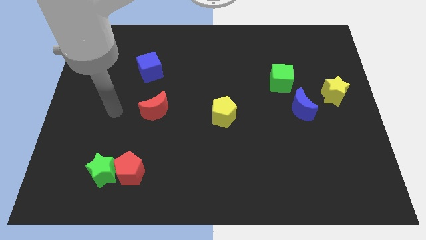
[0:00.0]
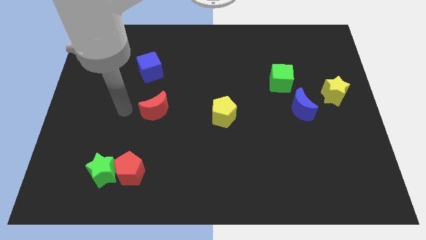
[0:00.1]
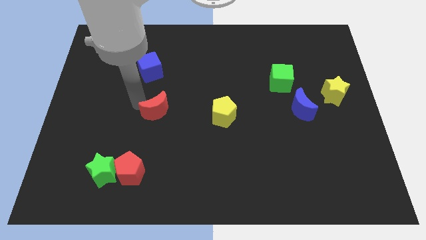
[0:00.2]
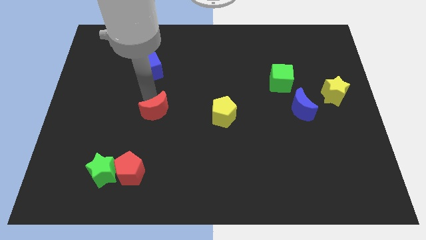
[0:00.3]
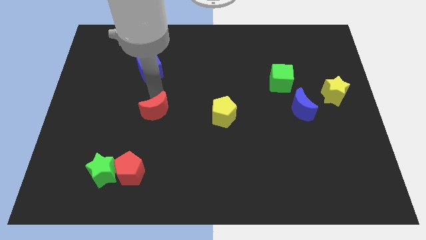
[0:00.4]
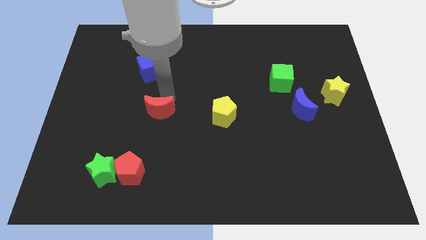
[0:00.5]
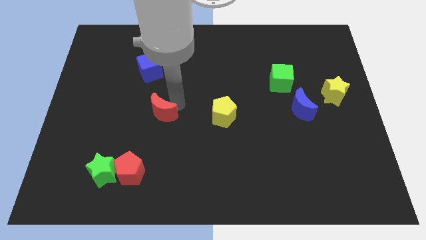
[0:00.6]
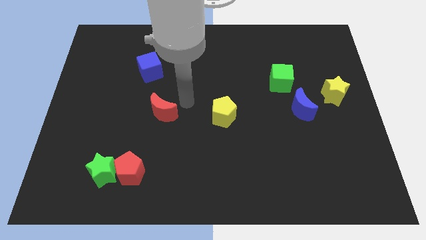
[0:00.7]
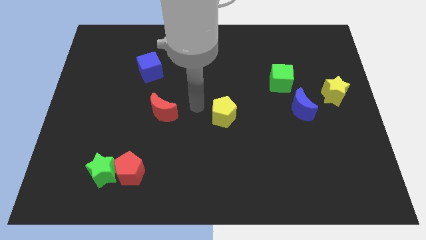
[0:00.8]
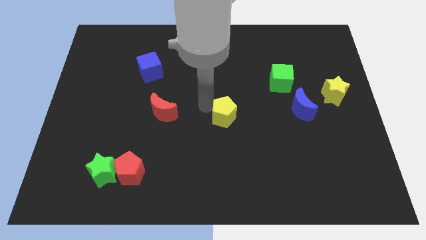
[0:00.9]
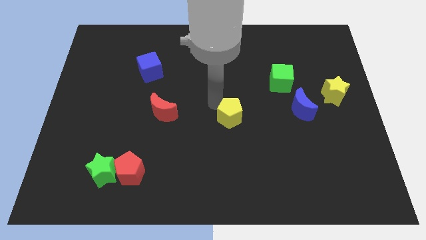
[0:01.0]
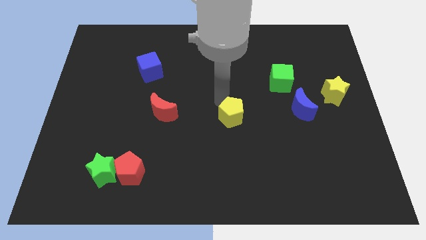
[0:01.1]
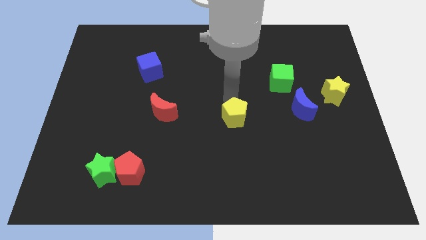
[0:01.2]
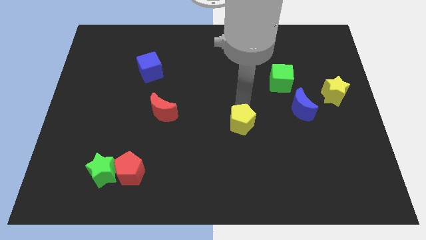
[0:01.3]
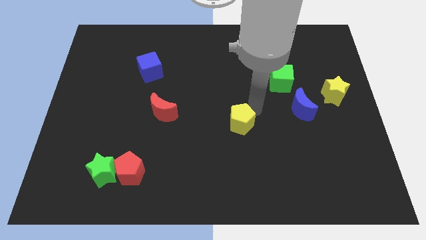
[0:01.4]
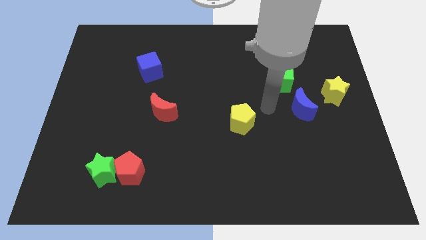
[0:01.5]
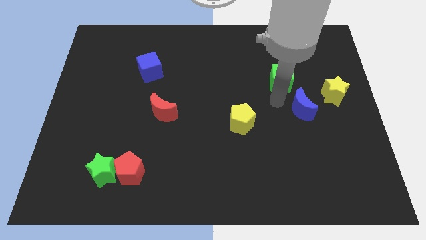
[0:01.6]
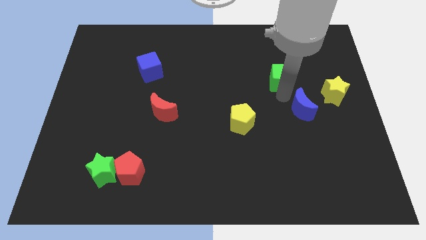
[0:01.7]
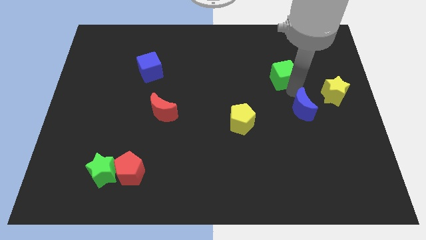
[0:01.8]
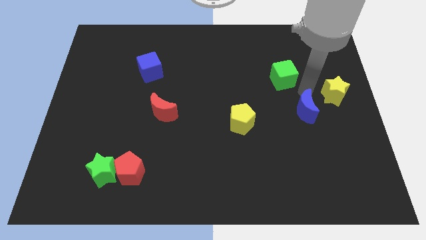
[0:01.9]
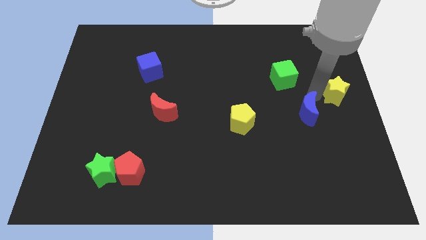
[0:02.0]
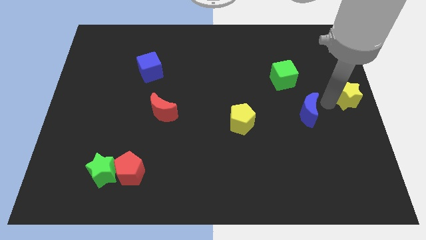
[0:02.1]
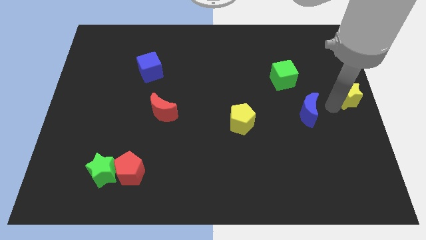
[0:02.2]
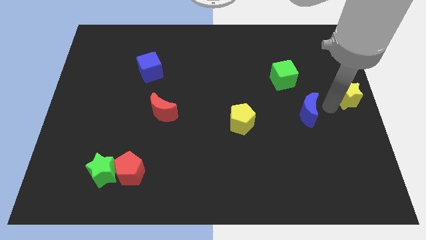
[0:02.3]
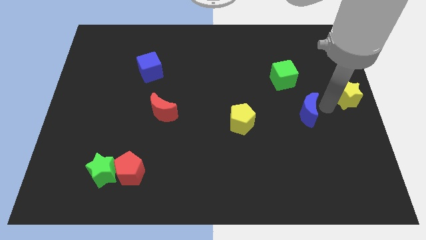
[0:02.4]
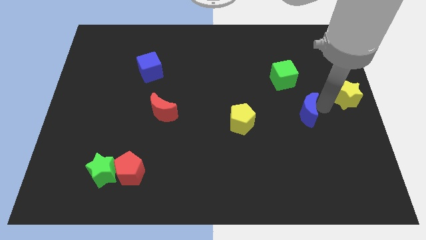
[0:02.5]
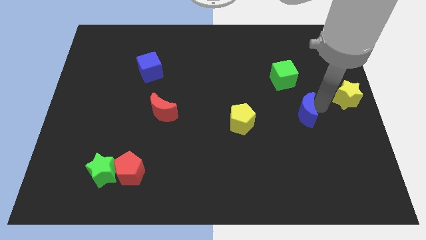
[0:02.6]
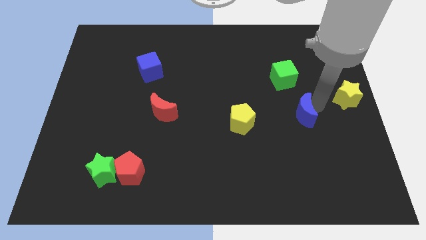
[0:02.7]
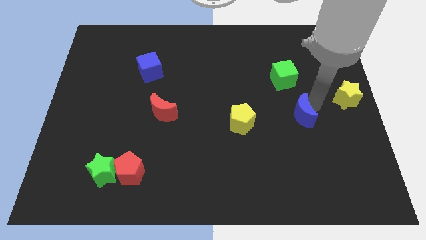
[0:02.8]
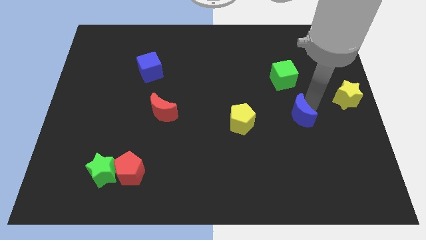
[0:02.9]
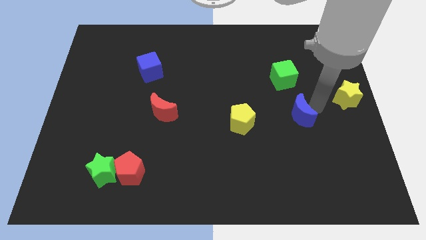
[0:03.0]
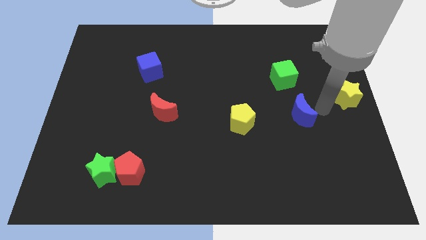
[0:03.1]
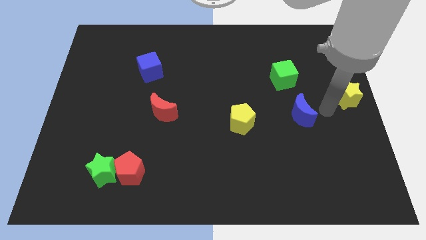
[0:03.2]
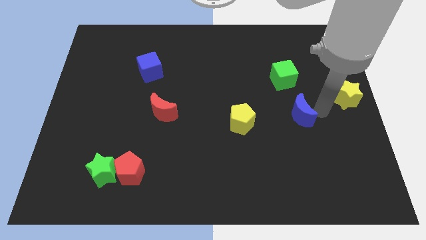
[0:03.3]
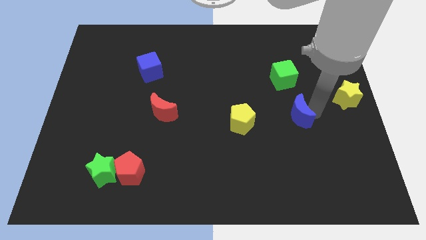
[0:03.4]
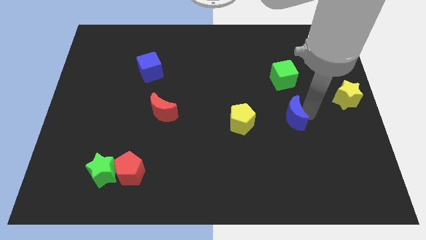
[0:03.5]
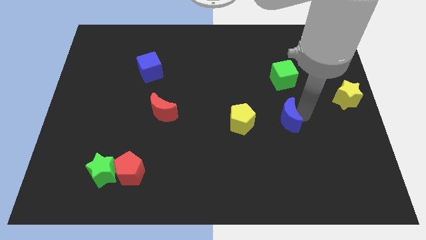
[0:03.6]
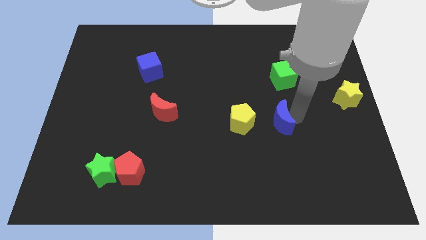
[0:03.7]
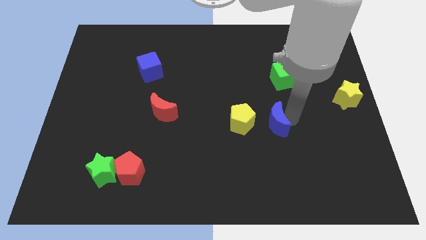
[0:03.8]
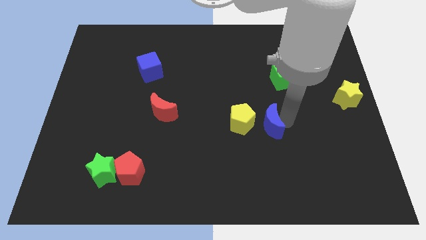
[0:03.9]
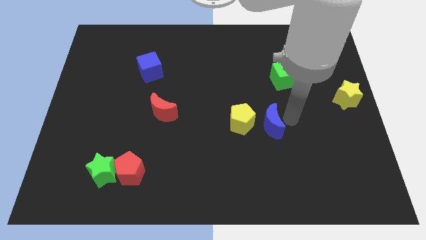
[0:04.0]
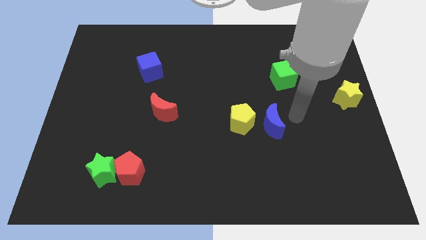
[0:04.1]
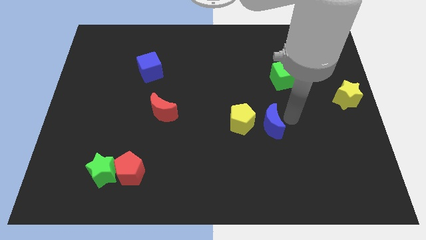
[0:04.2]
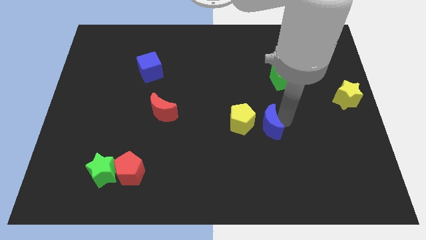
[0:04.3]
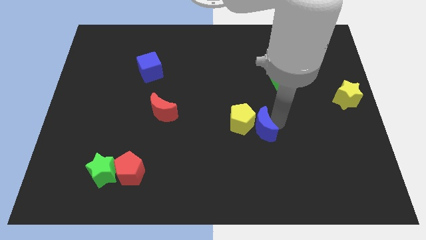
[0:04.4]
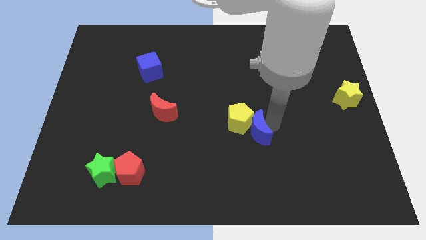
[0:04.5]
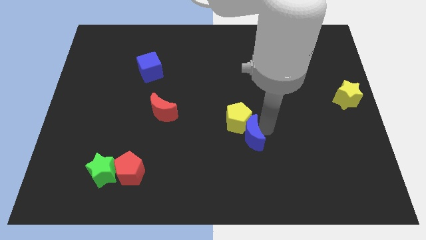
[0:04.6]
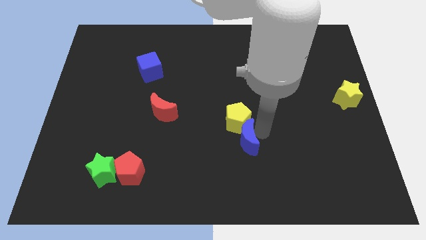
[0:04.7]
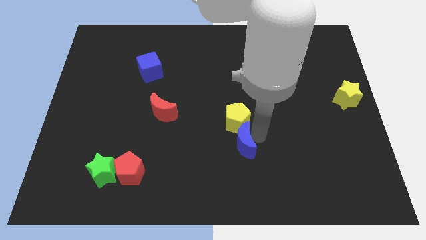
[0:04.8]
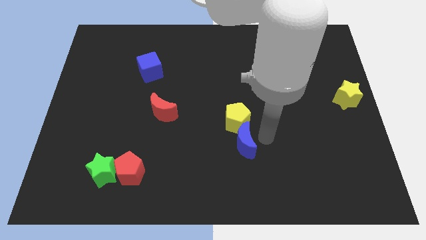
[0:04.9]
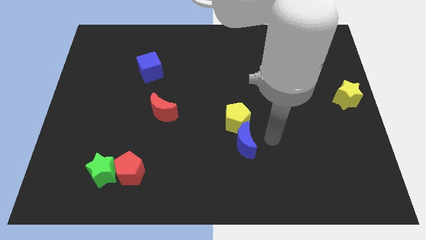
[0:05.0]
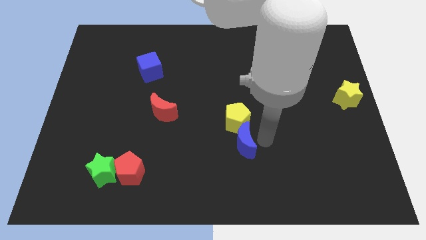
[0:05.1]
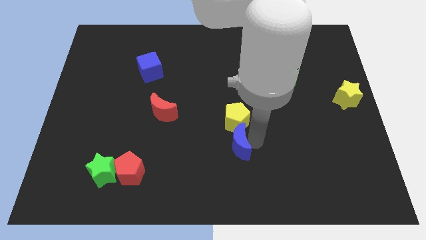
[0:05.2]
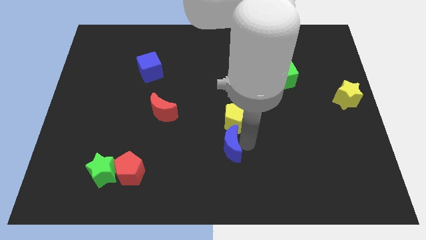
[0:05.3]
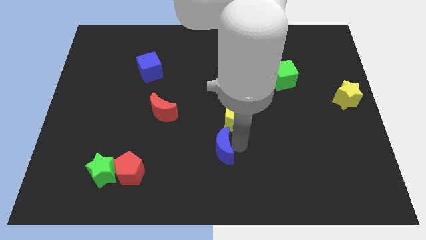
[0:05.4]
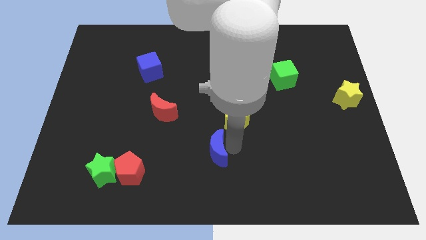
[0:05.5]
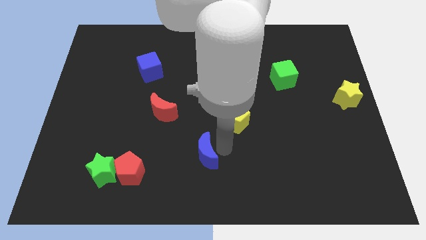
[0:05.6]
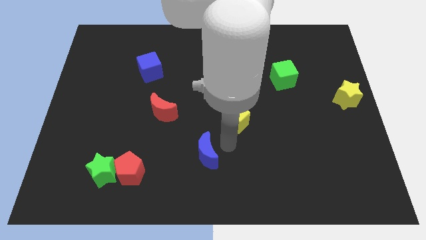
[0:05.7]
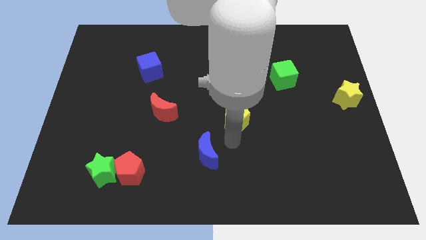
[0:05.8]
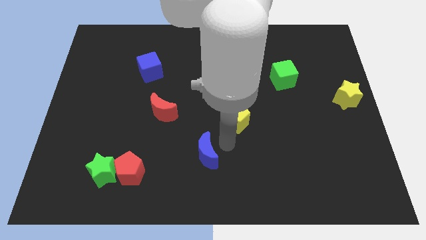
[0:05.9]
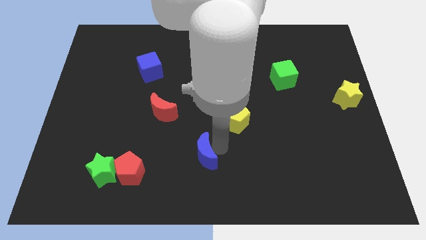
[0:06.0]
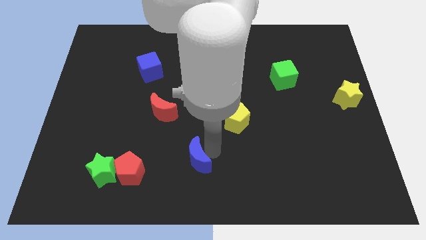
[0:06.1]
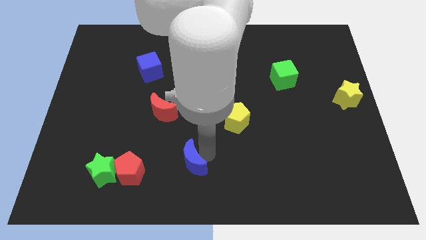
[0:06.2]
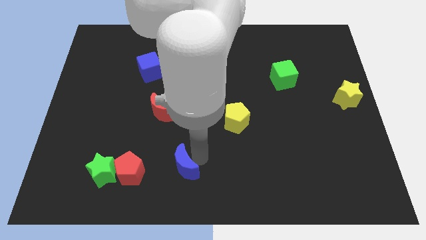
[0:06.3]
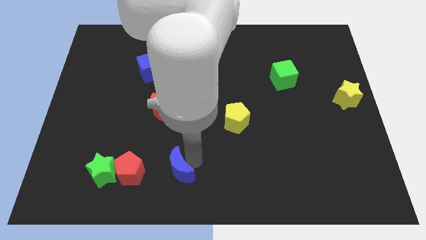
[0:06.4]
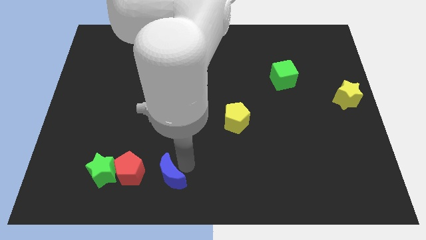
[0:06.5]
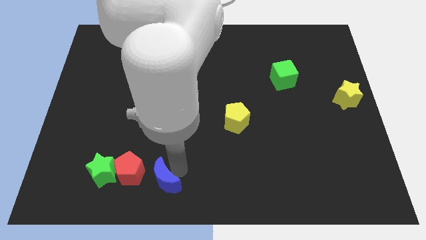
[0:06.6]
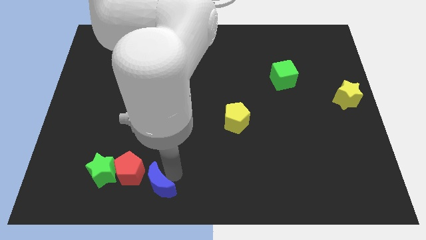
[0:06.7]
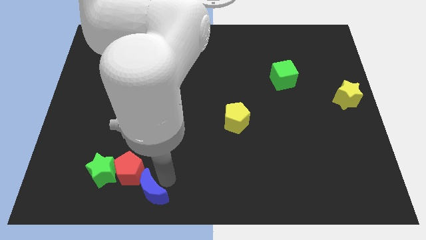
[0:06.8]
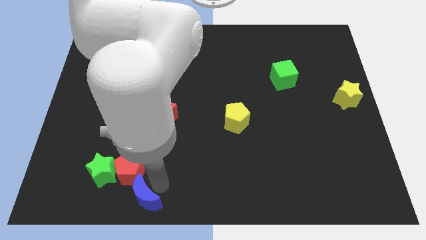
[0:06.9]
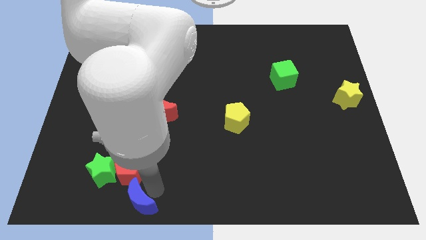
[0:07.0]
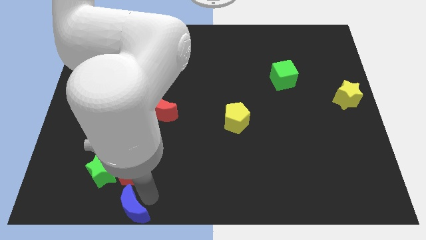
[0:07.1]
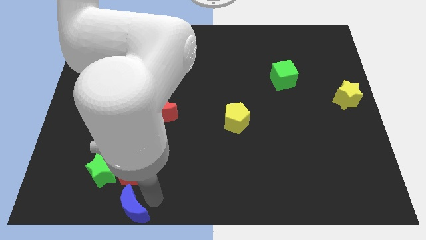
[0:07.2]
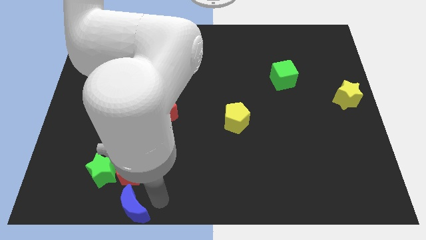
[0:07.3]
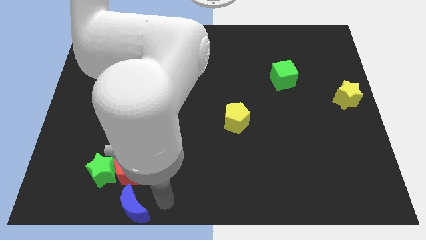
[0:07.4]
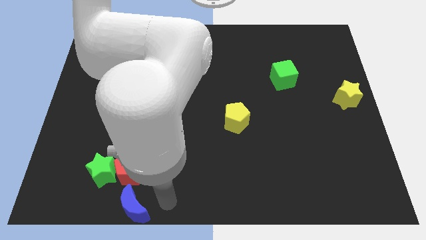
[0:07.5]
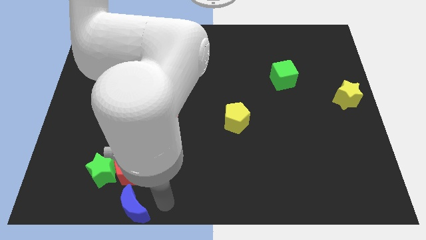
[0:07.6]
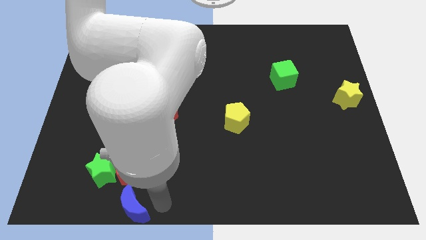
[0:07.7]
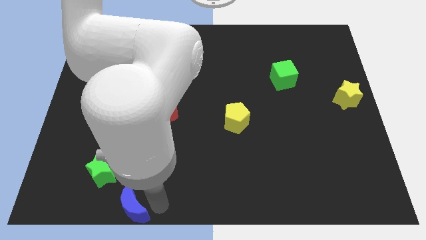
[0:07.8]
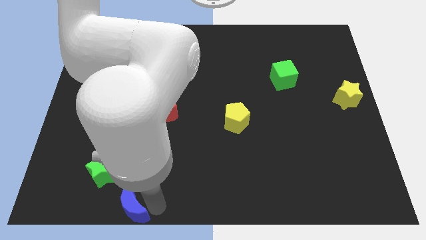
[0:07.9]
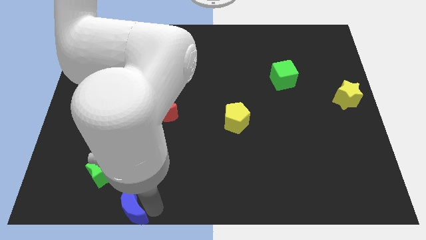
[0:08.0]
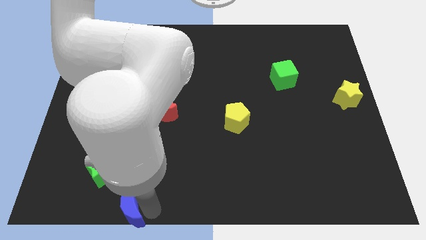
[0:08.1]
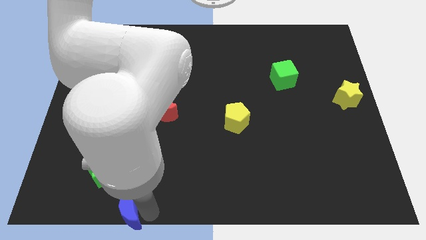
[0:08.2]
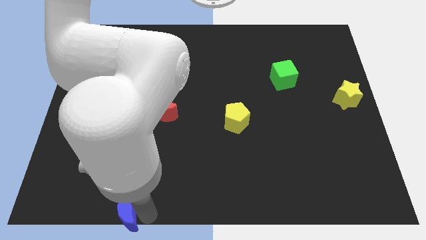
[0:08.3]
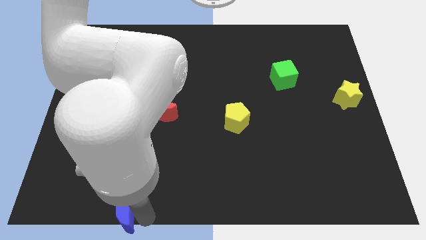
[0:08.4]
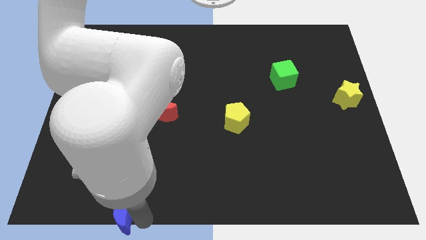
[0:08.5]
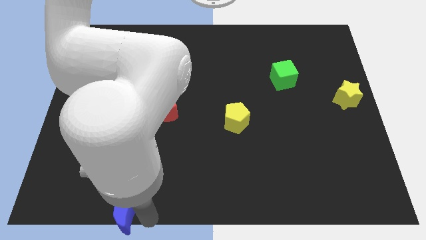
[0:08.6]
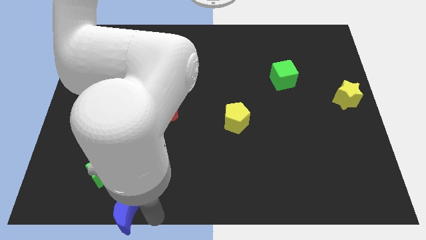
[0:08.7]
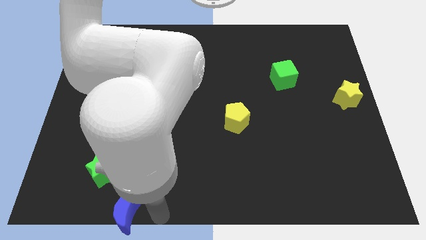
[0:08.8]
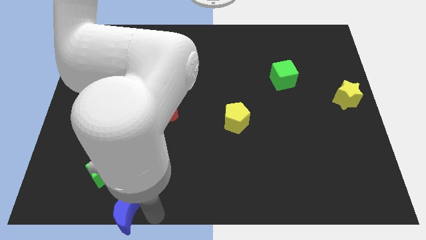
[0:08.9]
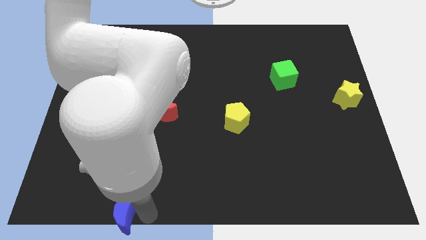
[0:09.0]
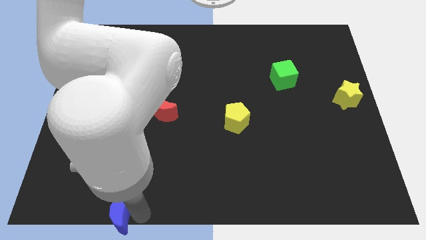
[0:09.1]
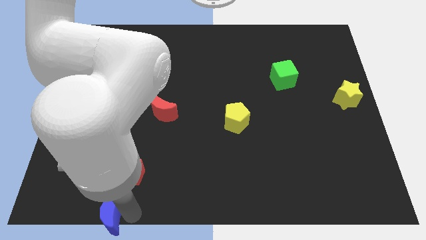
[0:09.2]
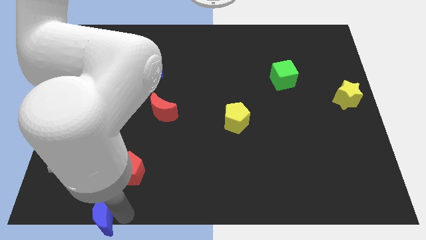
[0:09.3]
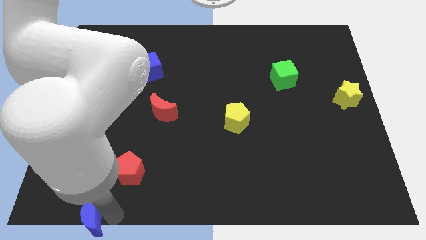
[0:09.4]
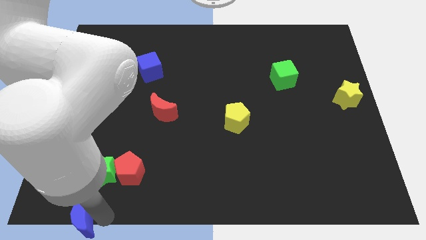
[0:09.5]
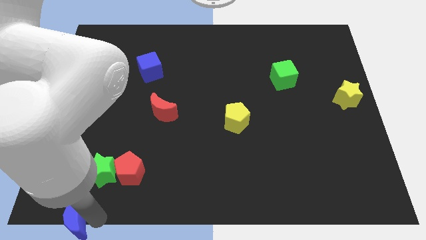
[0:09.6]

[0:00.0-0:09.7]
push the blue moon to the bottom left corner
